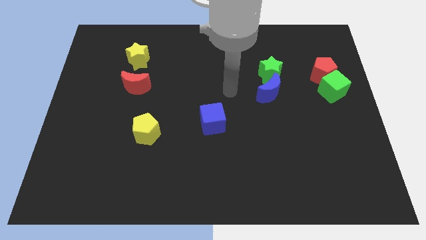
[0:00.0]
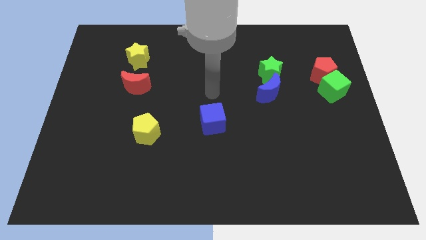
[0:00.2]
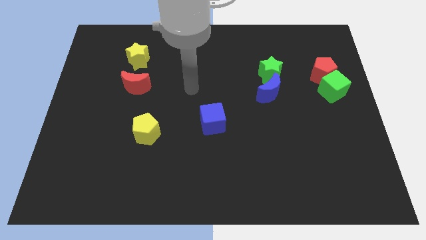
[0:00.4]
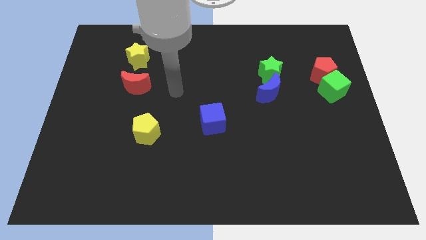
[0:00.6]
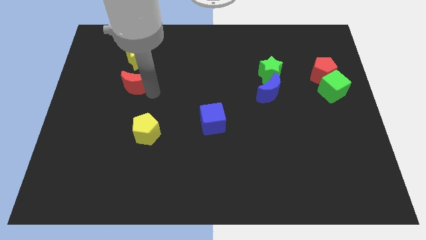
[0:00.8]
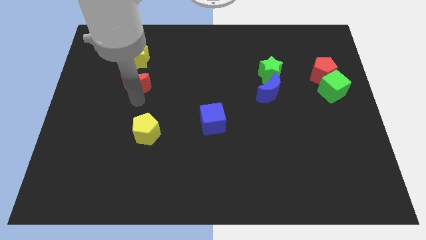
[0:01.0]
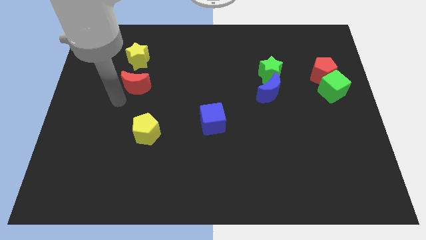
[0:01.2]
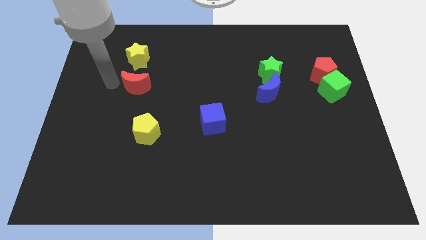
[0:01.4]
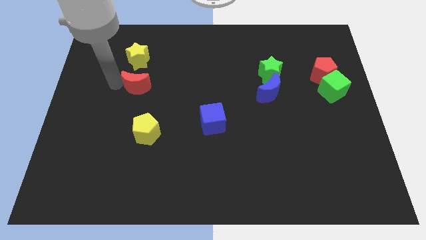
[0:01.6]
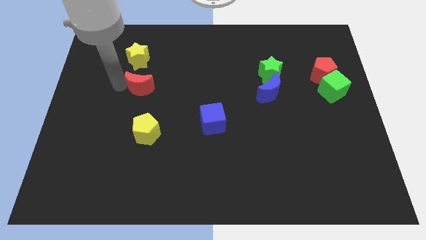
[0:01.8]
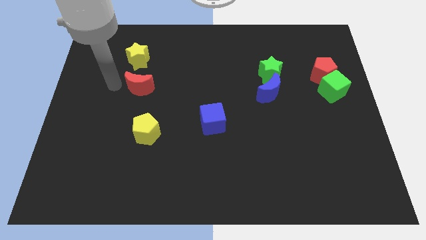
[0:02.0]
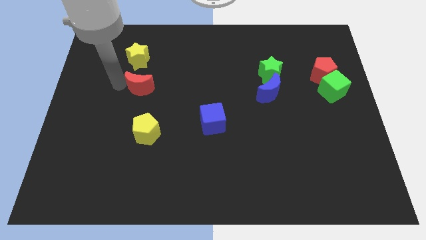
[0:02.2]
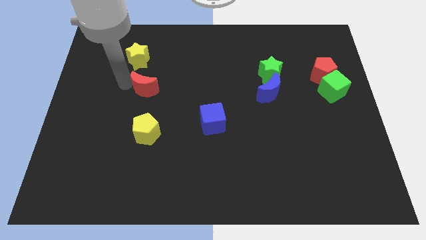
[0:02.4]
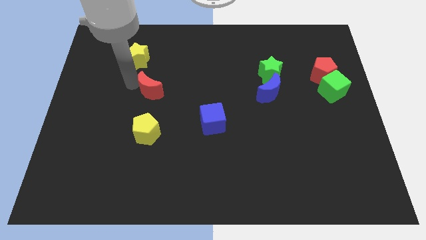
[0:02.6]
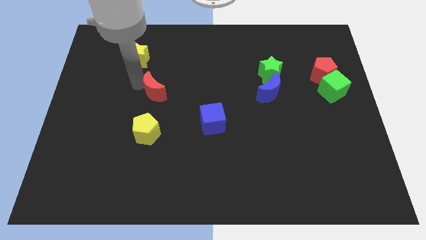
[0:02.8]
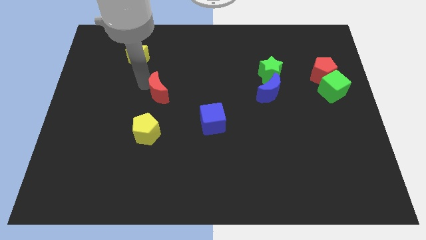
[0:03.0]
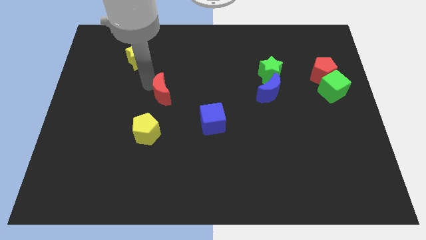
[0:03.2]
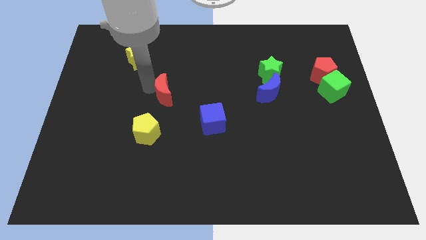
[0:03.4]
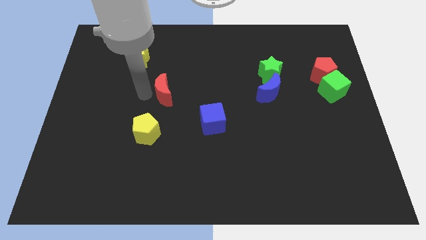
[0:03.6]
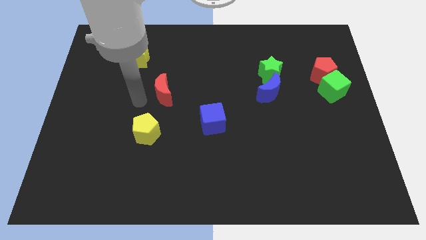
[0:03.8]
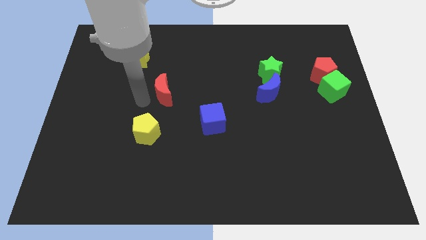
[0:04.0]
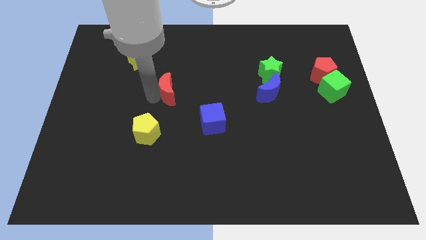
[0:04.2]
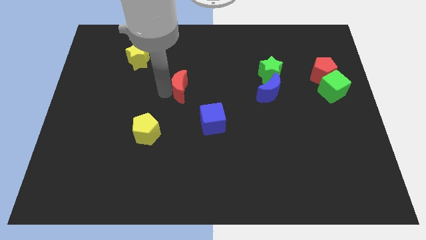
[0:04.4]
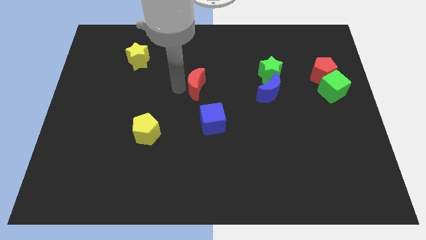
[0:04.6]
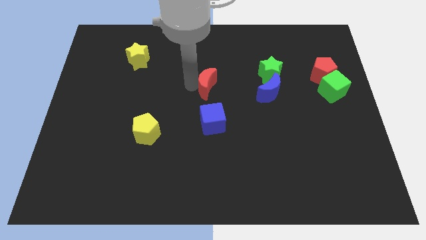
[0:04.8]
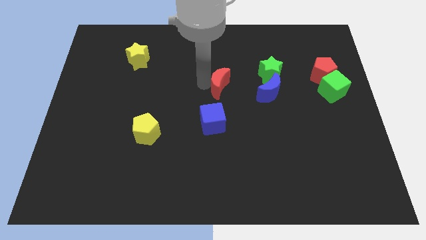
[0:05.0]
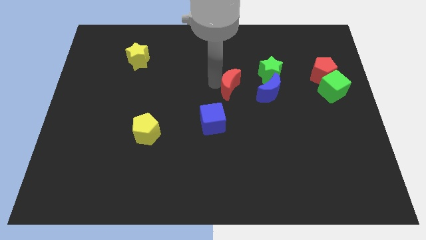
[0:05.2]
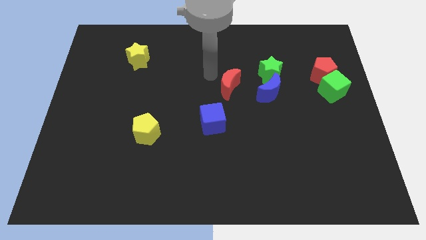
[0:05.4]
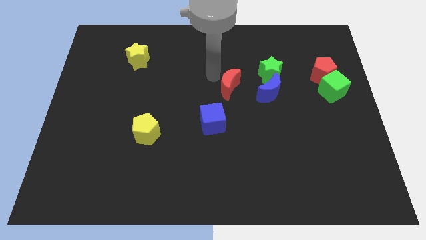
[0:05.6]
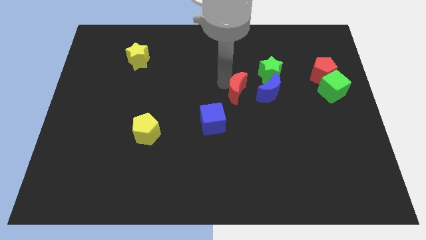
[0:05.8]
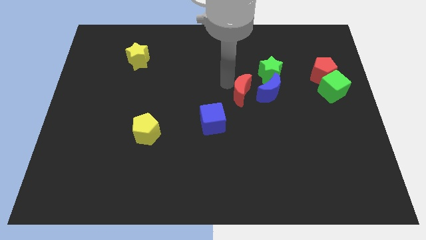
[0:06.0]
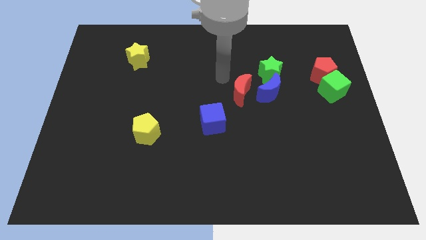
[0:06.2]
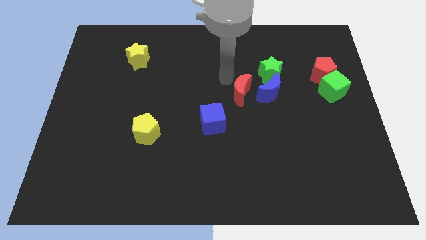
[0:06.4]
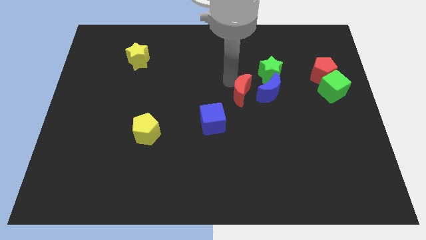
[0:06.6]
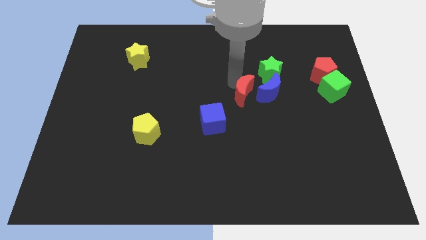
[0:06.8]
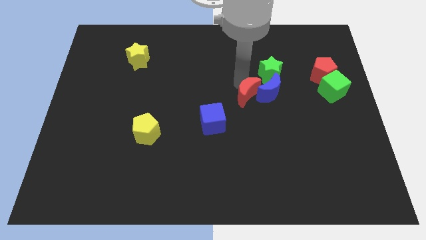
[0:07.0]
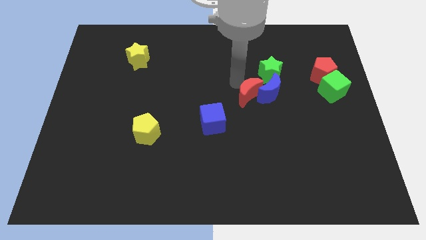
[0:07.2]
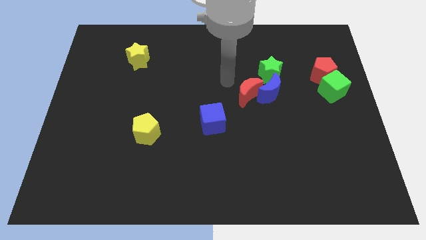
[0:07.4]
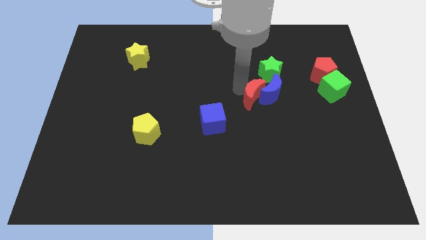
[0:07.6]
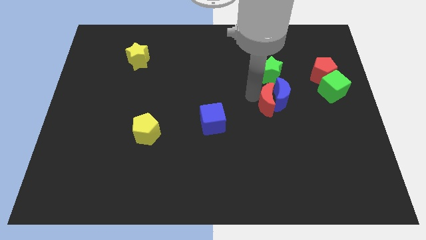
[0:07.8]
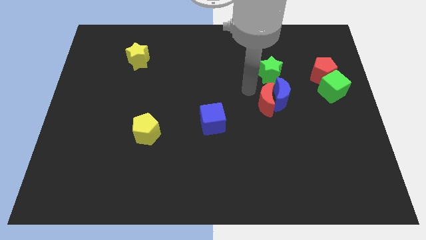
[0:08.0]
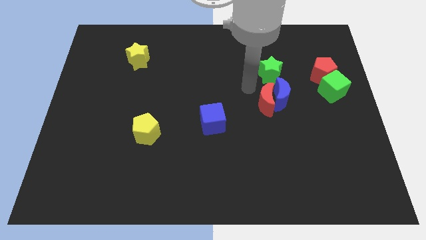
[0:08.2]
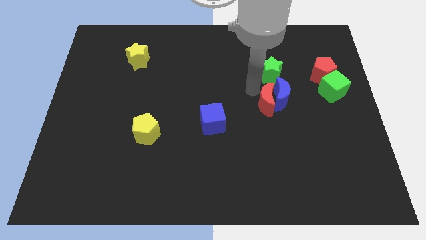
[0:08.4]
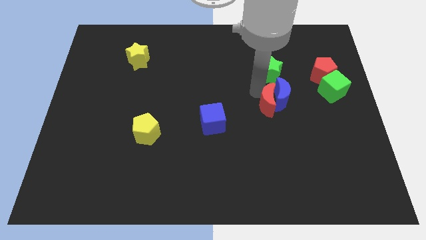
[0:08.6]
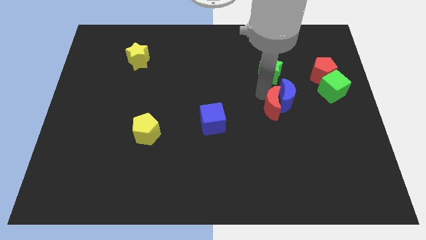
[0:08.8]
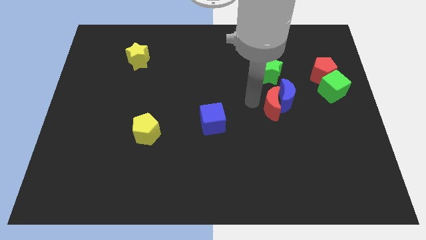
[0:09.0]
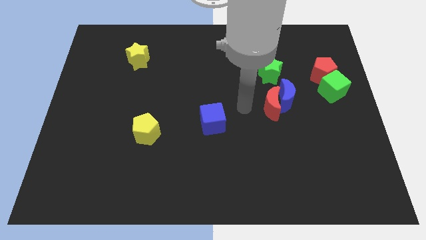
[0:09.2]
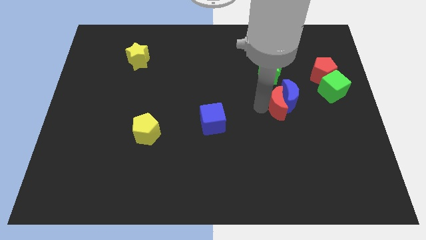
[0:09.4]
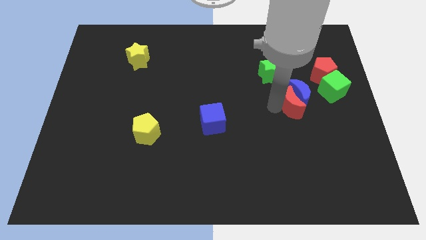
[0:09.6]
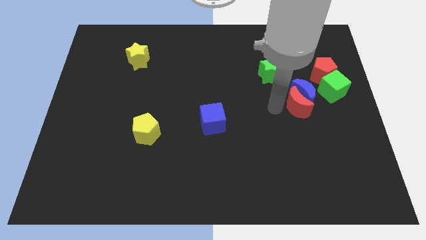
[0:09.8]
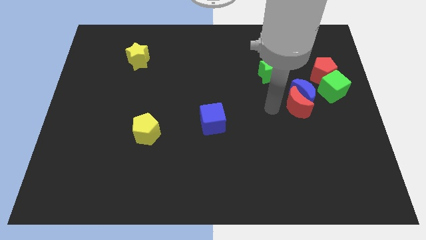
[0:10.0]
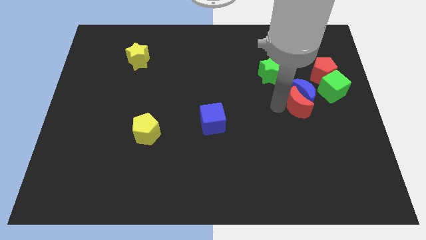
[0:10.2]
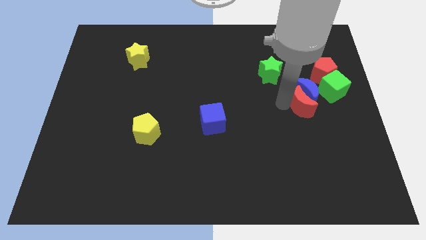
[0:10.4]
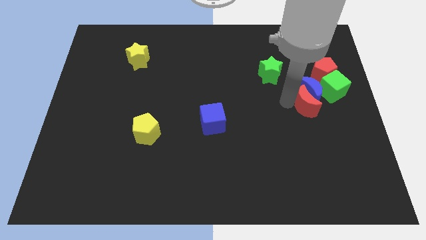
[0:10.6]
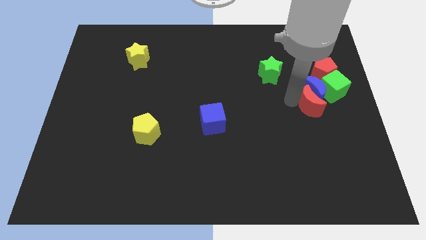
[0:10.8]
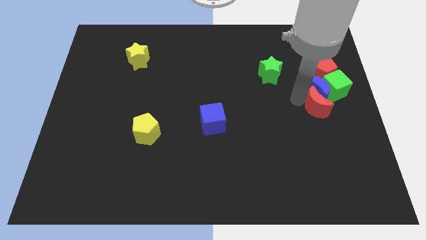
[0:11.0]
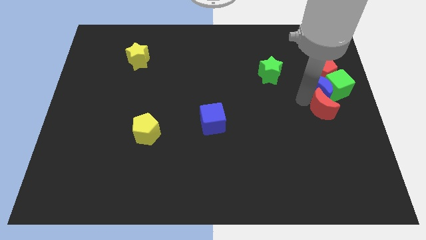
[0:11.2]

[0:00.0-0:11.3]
put the red moon to the center right

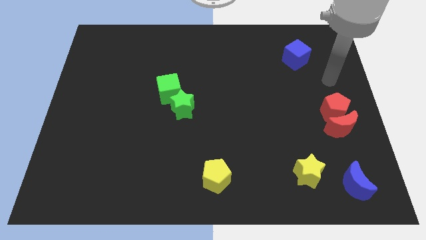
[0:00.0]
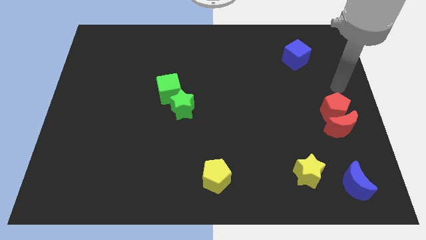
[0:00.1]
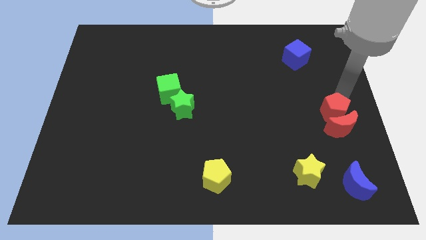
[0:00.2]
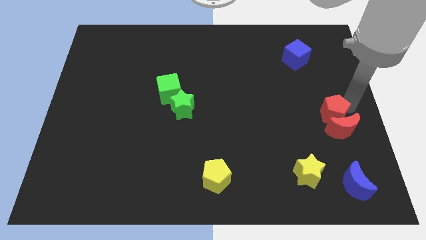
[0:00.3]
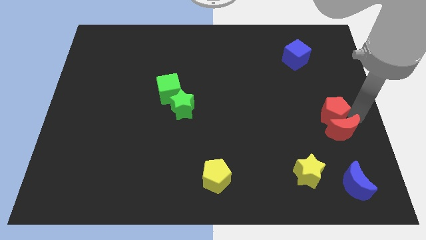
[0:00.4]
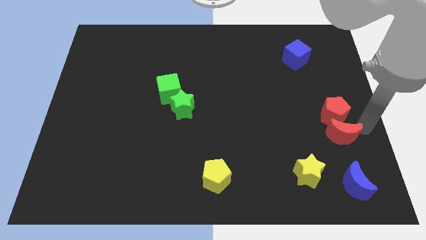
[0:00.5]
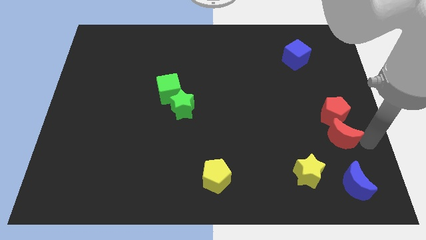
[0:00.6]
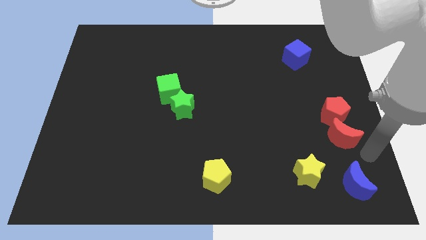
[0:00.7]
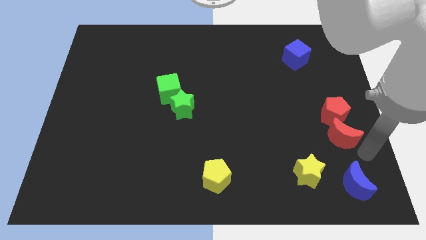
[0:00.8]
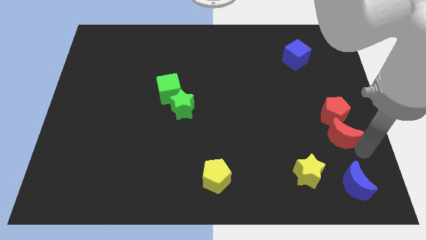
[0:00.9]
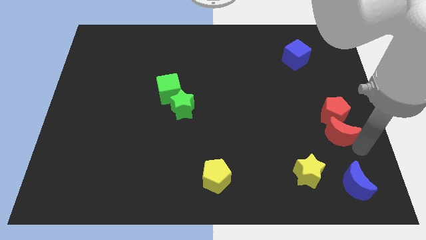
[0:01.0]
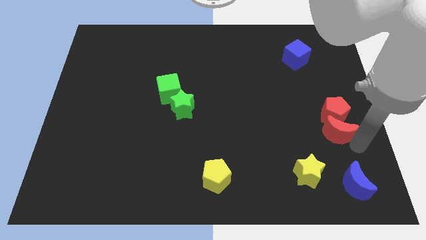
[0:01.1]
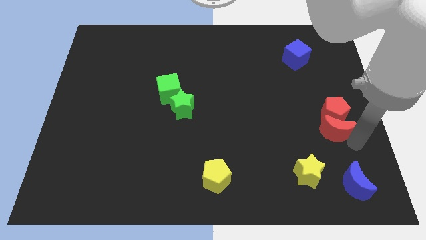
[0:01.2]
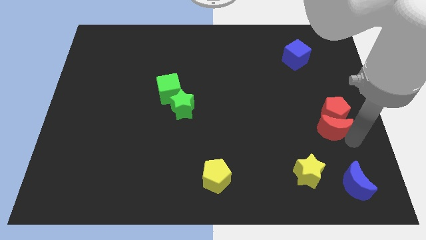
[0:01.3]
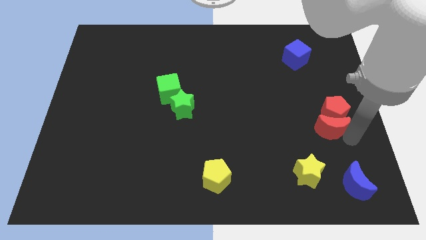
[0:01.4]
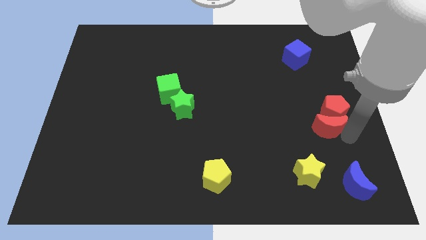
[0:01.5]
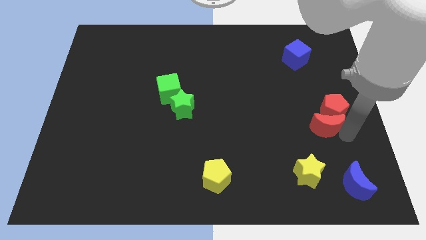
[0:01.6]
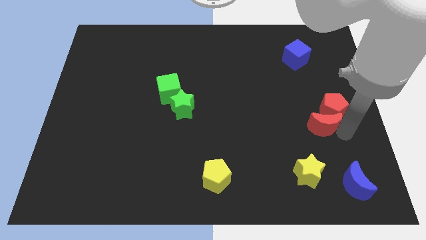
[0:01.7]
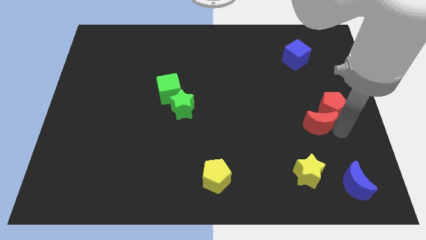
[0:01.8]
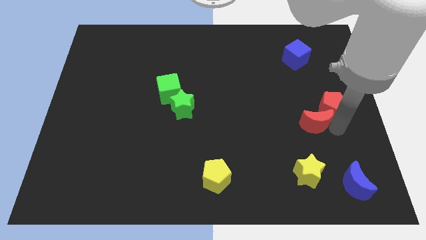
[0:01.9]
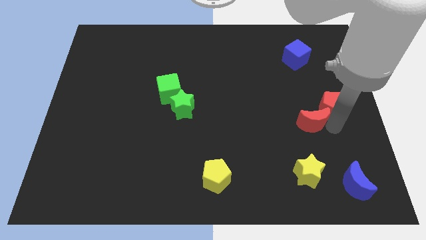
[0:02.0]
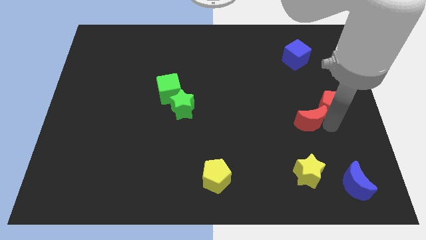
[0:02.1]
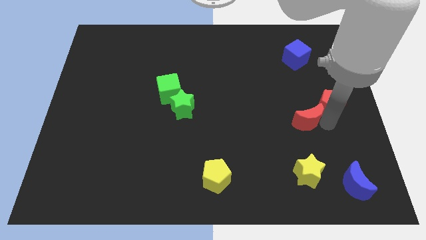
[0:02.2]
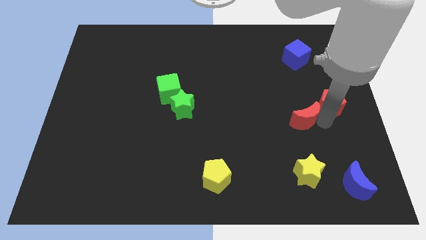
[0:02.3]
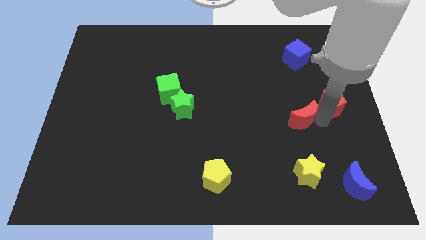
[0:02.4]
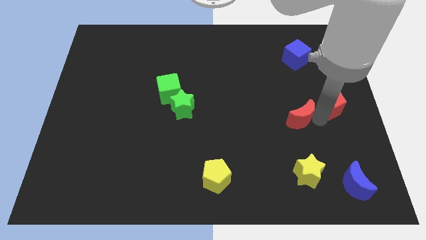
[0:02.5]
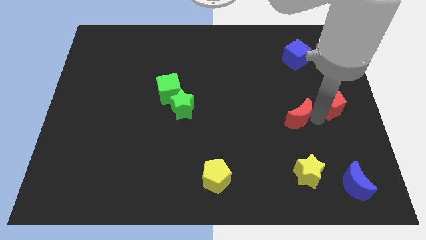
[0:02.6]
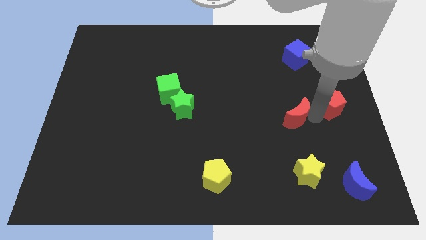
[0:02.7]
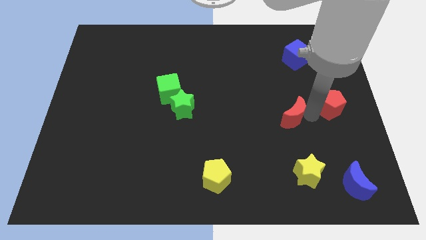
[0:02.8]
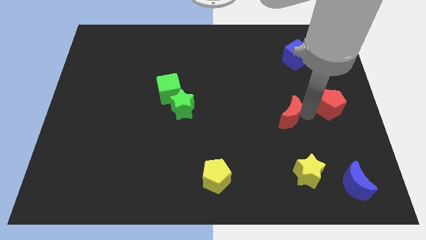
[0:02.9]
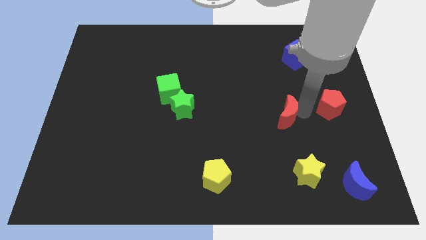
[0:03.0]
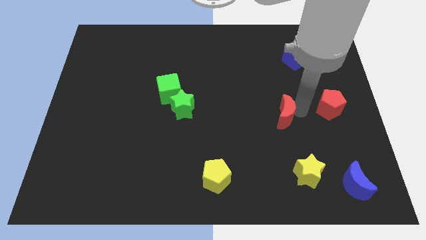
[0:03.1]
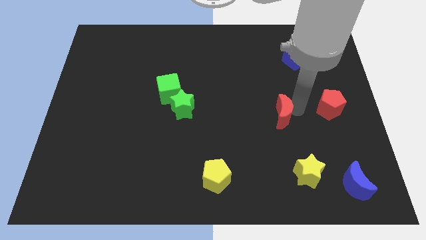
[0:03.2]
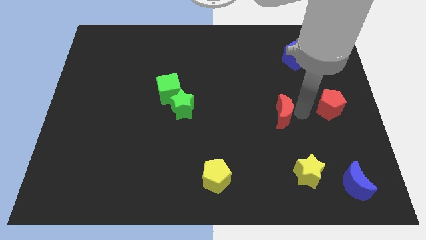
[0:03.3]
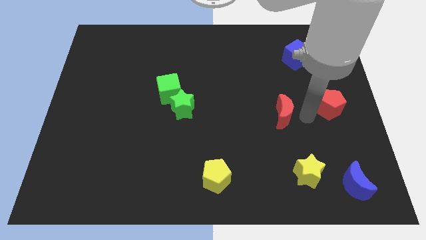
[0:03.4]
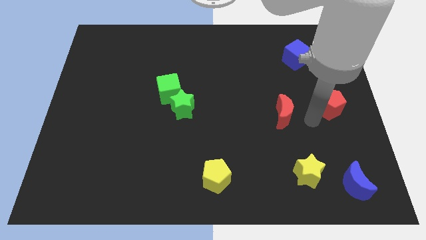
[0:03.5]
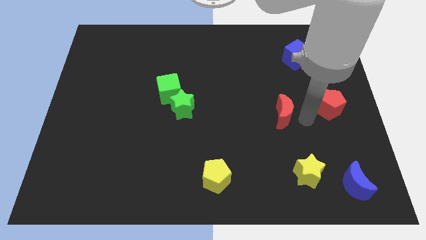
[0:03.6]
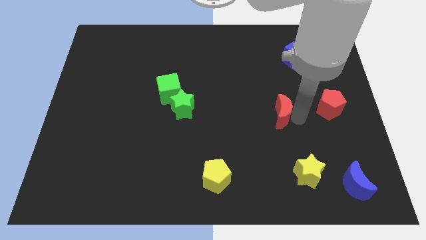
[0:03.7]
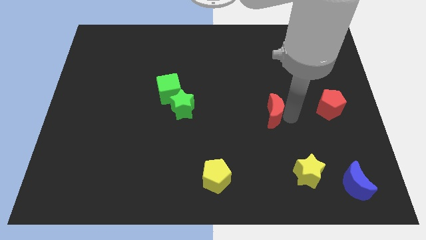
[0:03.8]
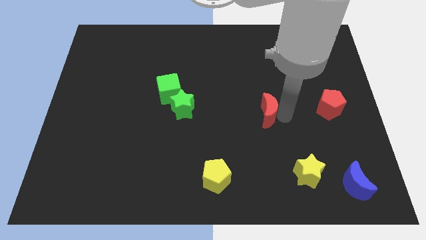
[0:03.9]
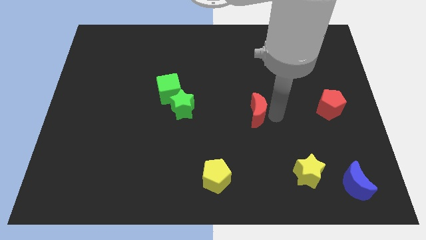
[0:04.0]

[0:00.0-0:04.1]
push the red moon to the center
